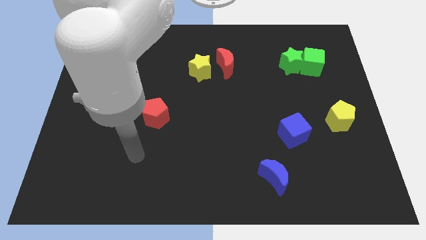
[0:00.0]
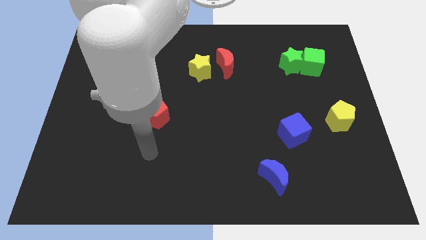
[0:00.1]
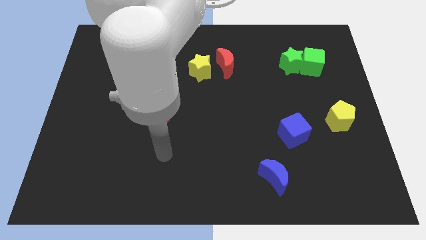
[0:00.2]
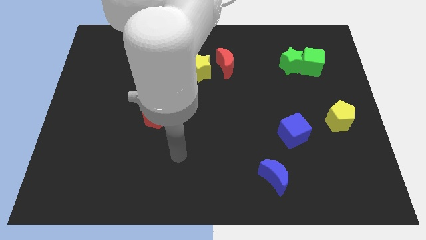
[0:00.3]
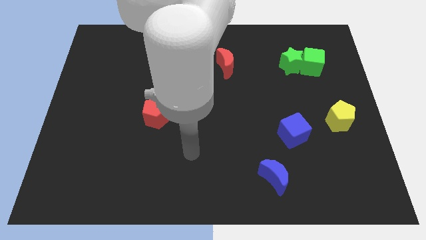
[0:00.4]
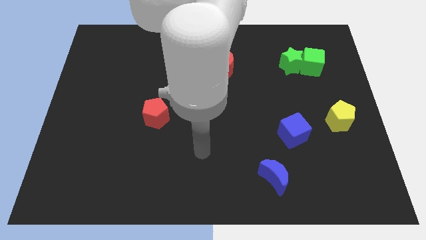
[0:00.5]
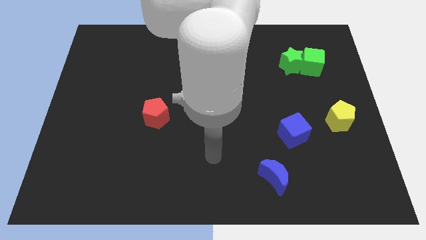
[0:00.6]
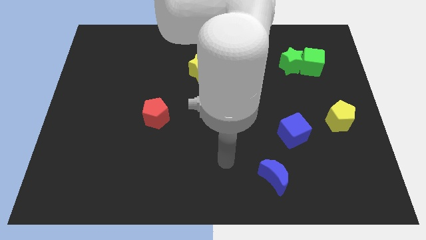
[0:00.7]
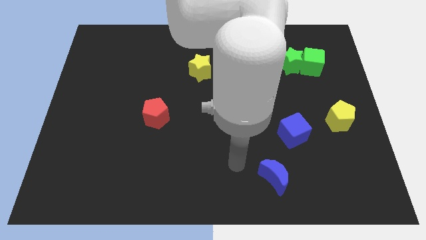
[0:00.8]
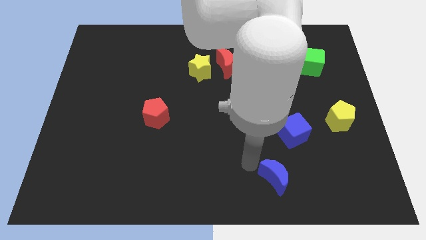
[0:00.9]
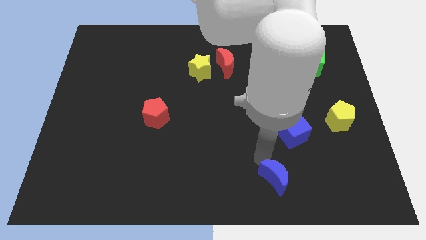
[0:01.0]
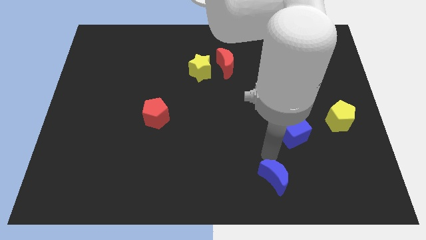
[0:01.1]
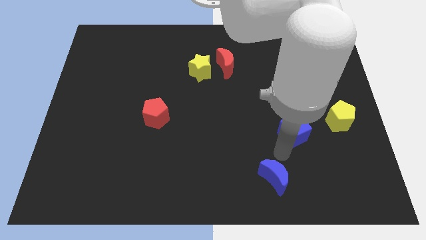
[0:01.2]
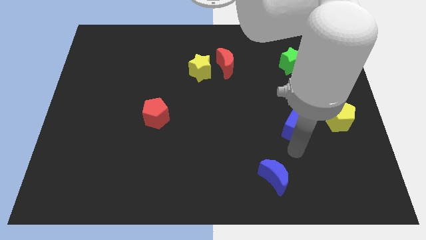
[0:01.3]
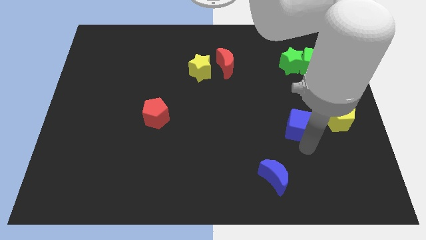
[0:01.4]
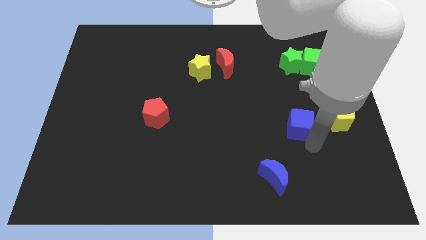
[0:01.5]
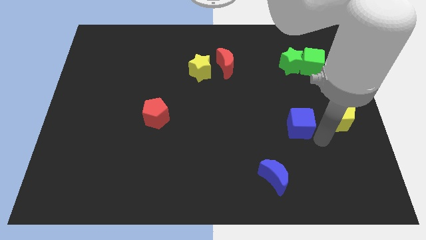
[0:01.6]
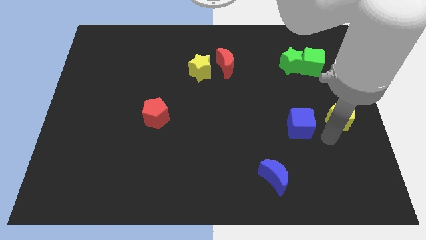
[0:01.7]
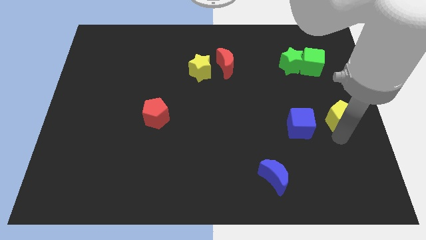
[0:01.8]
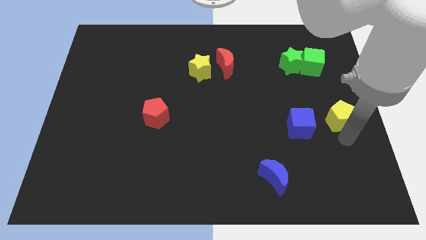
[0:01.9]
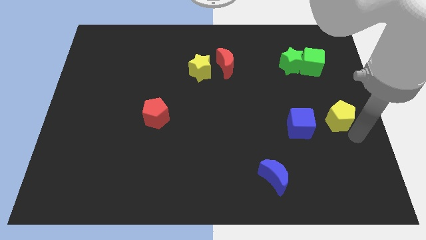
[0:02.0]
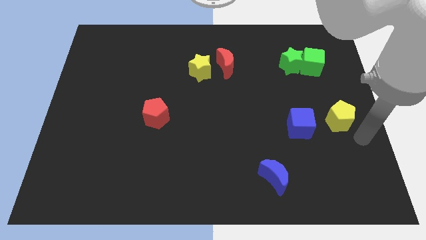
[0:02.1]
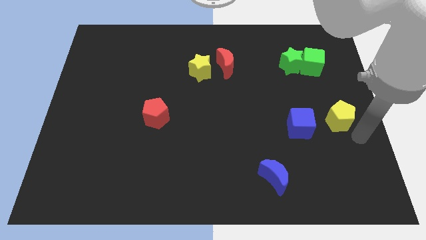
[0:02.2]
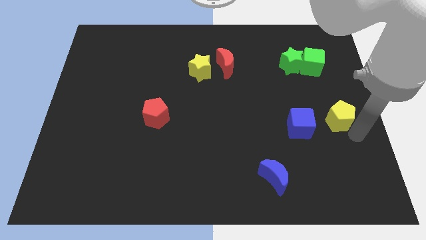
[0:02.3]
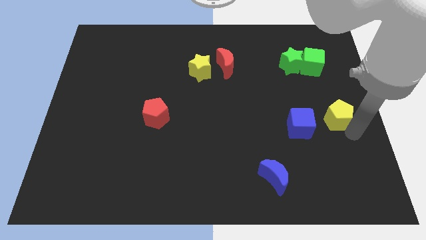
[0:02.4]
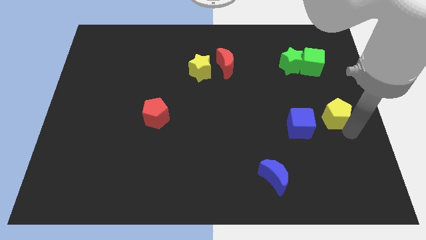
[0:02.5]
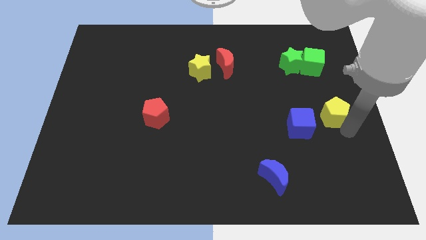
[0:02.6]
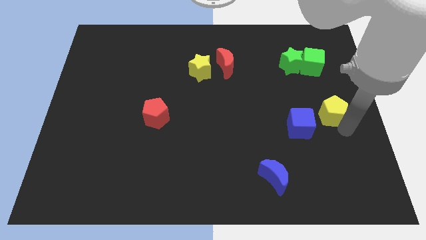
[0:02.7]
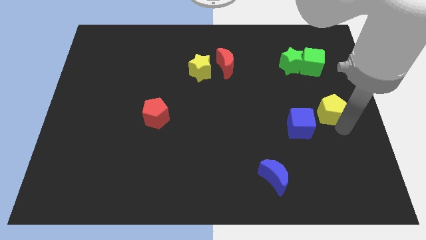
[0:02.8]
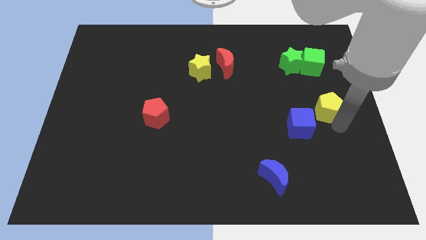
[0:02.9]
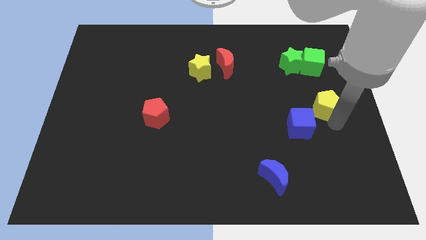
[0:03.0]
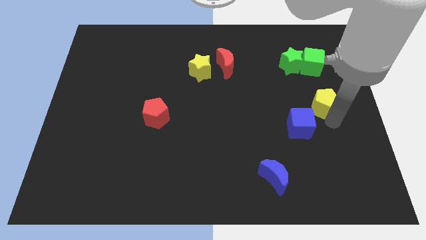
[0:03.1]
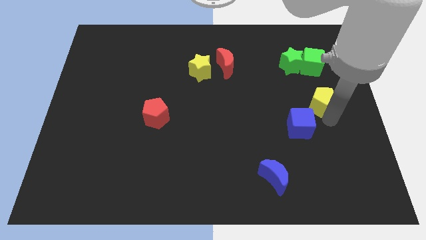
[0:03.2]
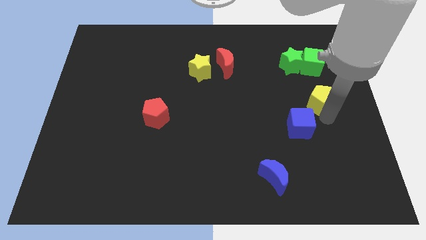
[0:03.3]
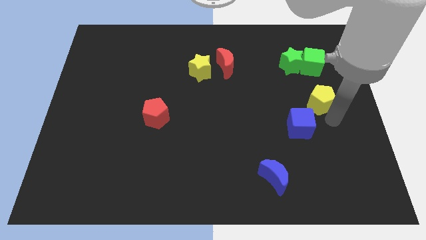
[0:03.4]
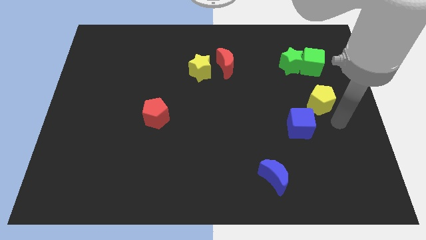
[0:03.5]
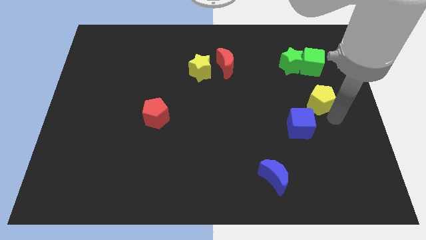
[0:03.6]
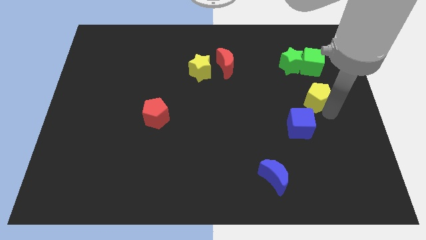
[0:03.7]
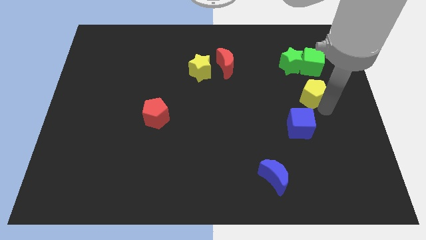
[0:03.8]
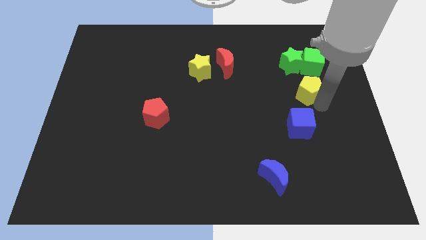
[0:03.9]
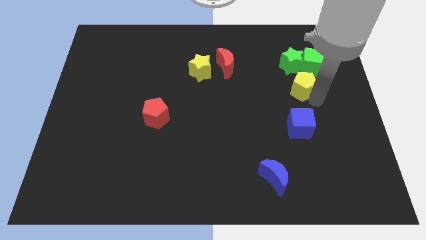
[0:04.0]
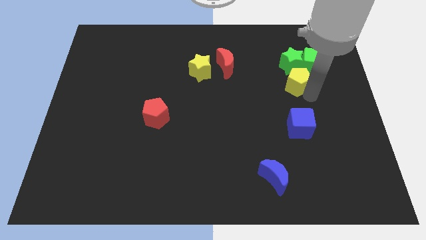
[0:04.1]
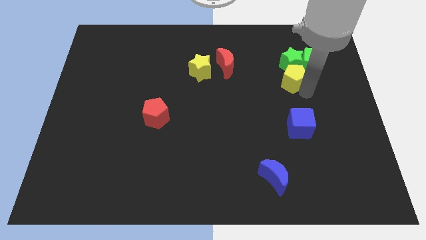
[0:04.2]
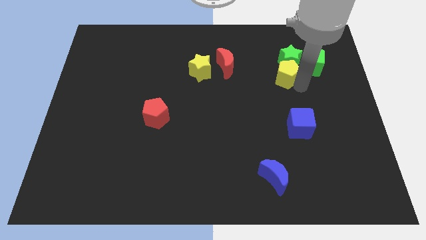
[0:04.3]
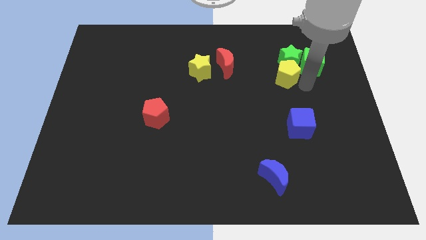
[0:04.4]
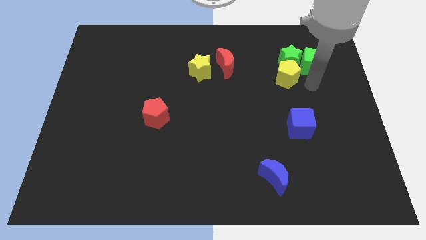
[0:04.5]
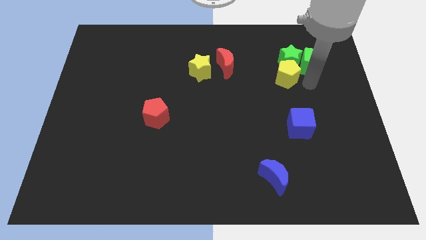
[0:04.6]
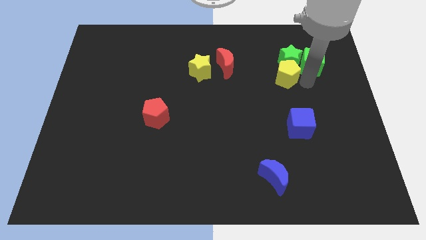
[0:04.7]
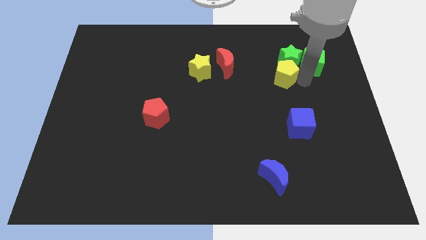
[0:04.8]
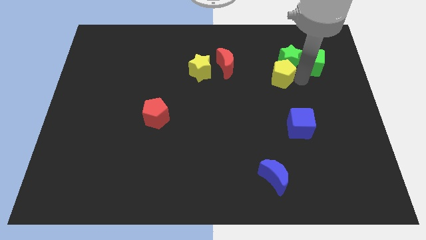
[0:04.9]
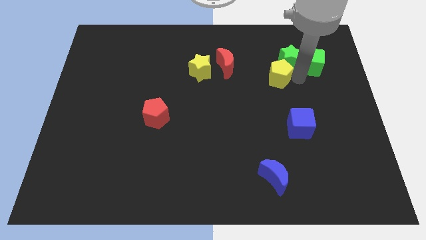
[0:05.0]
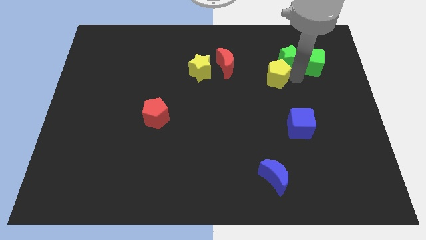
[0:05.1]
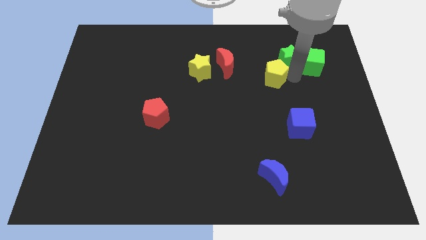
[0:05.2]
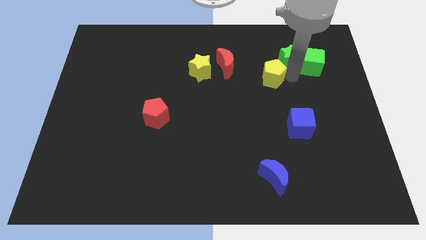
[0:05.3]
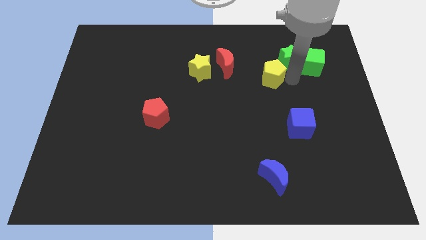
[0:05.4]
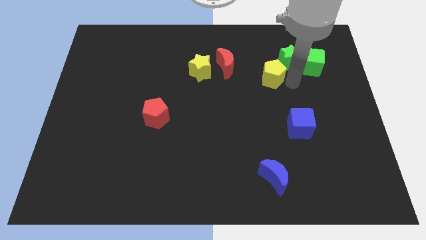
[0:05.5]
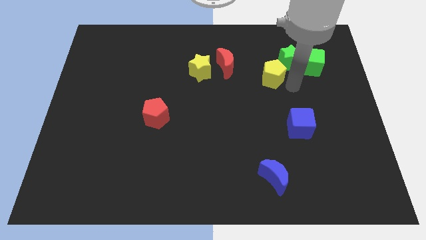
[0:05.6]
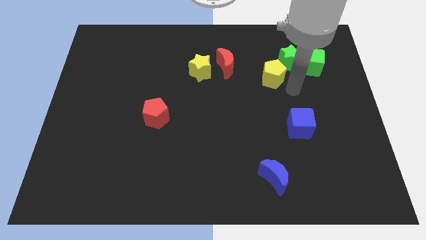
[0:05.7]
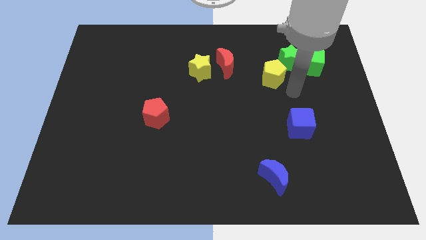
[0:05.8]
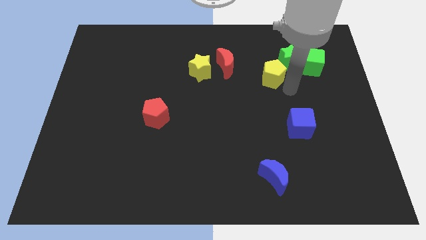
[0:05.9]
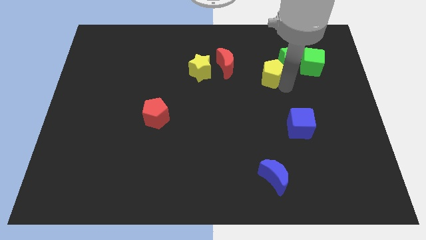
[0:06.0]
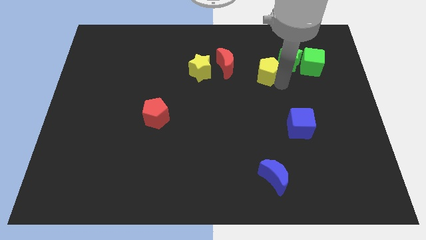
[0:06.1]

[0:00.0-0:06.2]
slide the yellow pentagon to the left of the green star

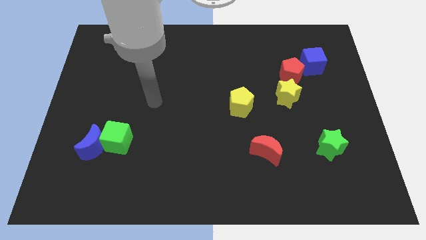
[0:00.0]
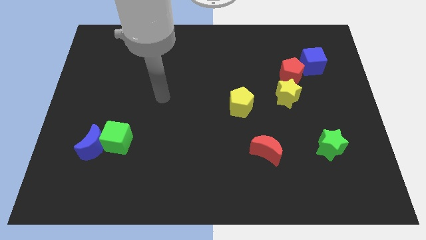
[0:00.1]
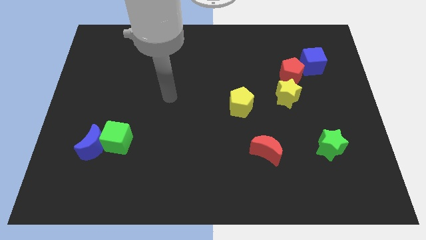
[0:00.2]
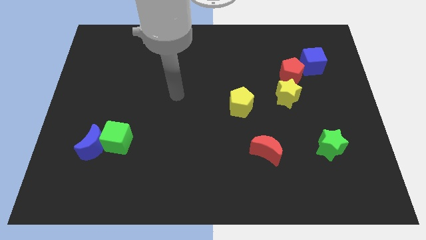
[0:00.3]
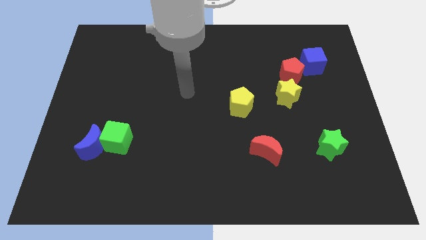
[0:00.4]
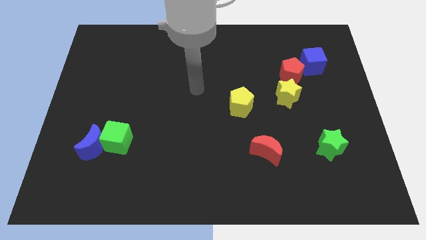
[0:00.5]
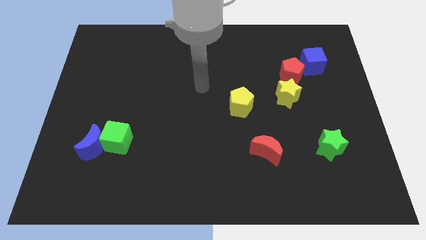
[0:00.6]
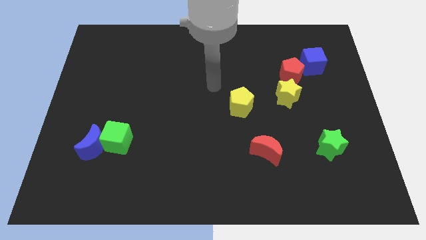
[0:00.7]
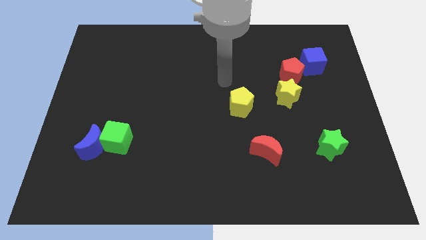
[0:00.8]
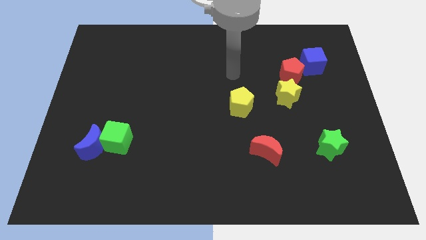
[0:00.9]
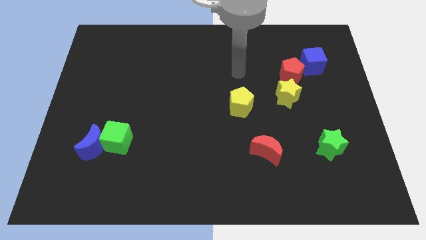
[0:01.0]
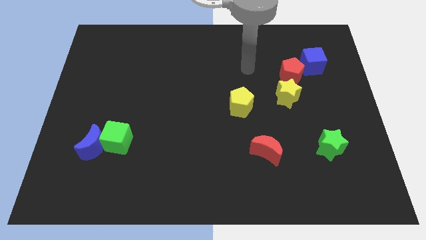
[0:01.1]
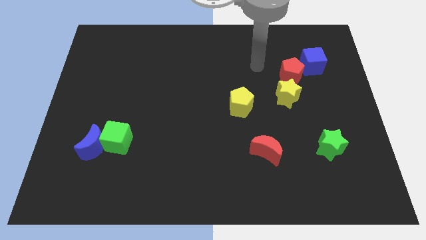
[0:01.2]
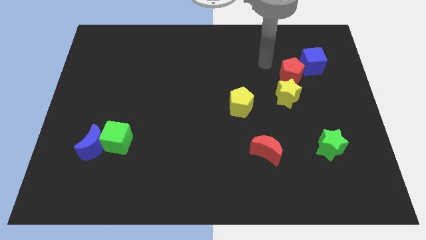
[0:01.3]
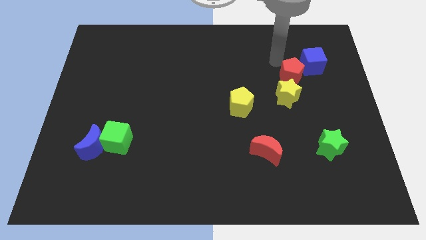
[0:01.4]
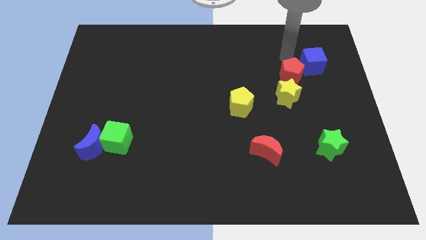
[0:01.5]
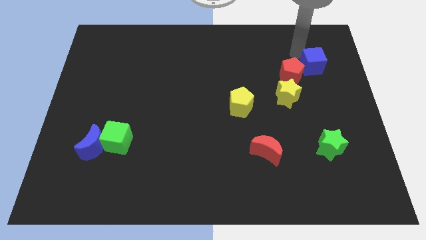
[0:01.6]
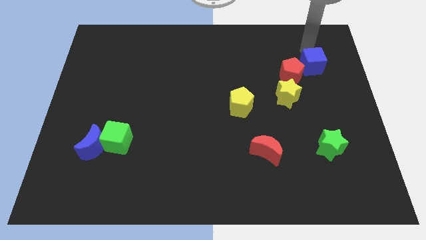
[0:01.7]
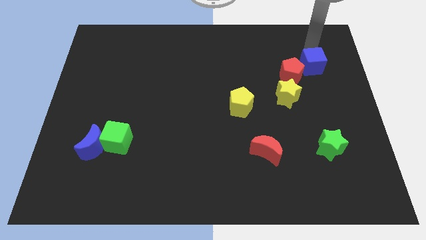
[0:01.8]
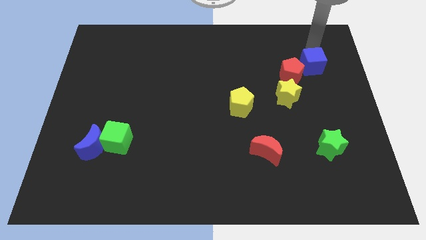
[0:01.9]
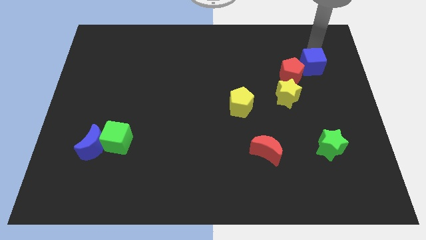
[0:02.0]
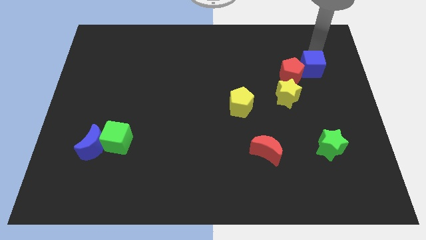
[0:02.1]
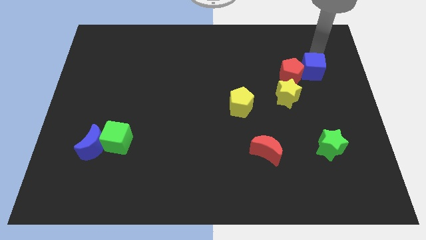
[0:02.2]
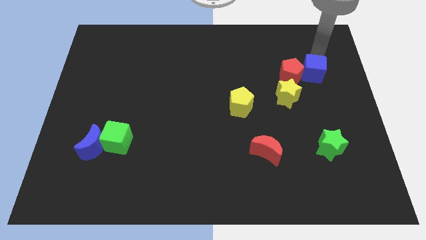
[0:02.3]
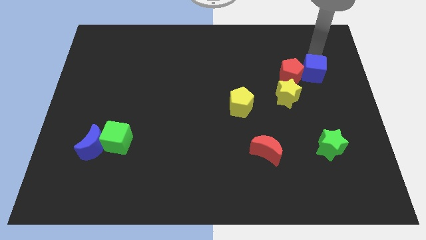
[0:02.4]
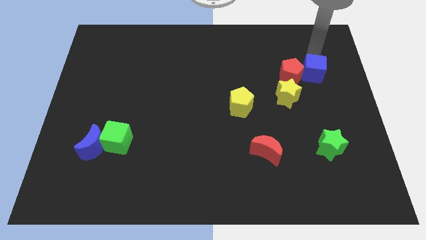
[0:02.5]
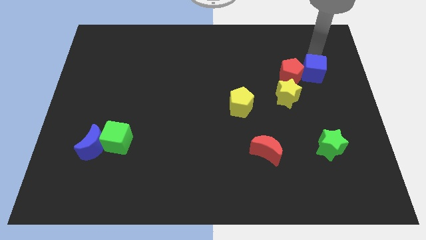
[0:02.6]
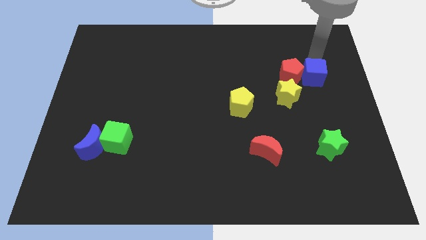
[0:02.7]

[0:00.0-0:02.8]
slide the blue cube diagonally down and to the right of the red pentagon
